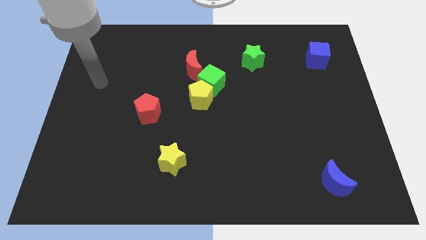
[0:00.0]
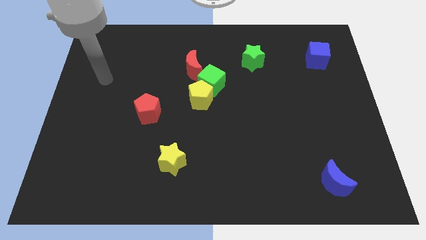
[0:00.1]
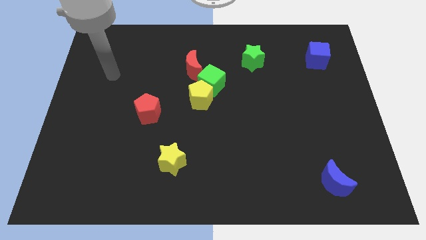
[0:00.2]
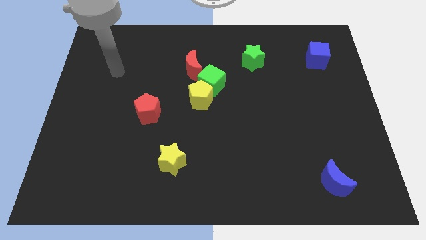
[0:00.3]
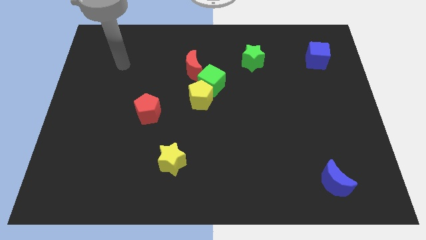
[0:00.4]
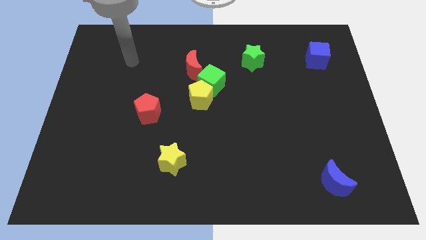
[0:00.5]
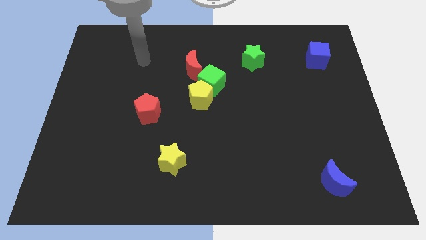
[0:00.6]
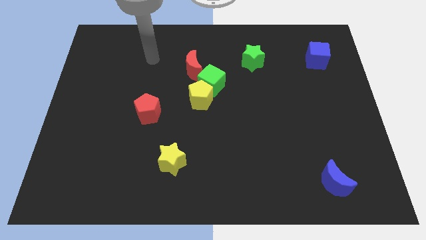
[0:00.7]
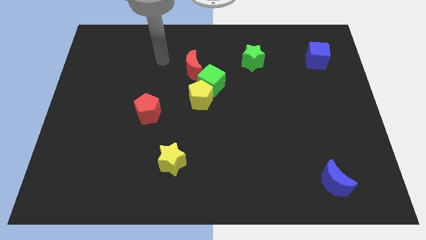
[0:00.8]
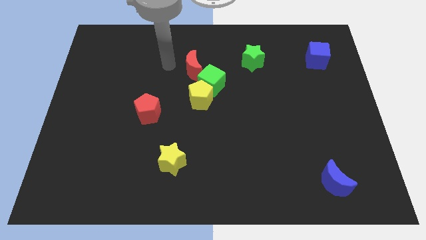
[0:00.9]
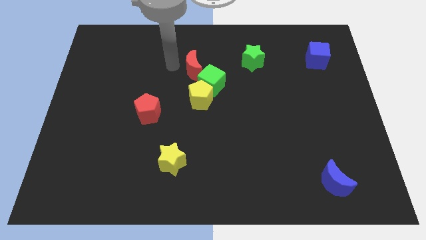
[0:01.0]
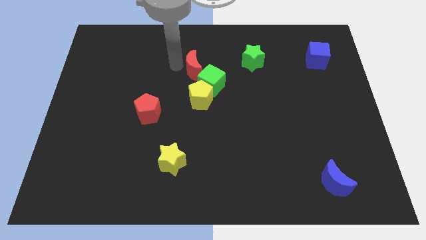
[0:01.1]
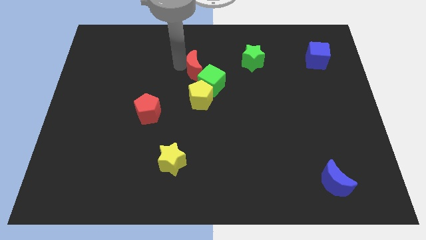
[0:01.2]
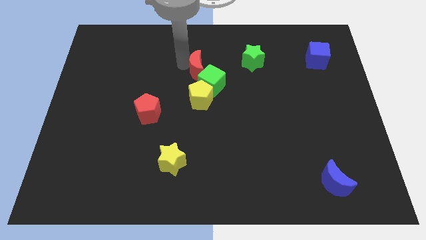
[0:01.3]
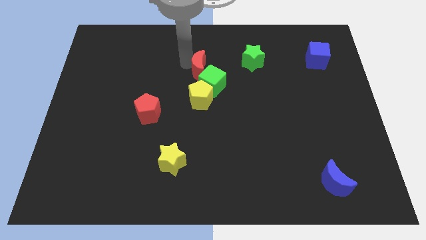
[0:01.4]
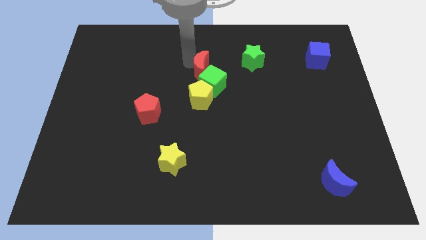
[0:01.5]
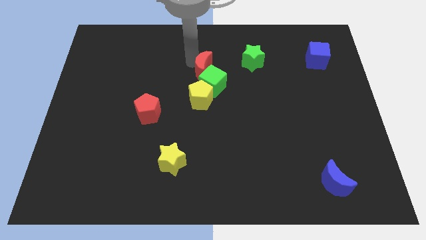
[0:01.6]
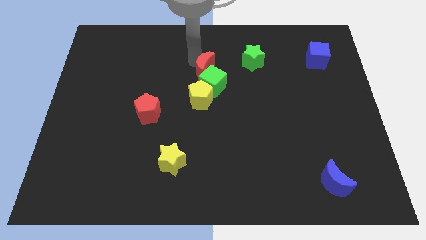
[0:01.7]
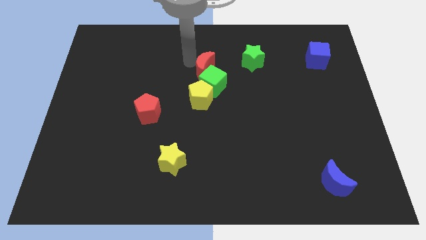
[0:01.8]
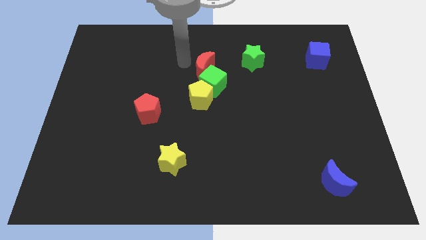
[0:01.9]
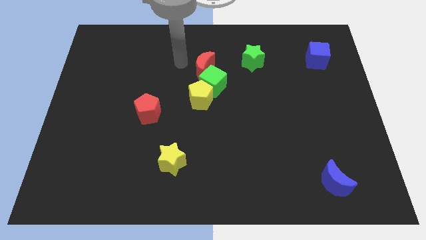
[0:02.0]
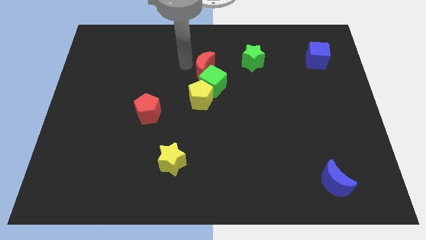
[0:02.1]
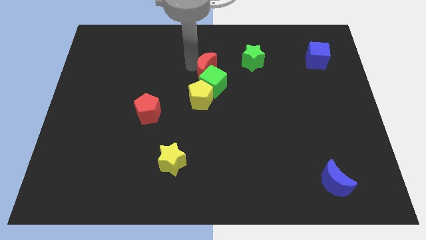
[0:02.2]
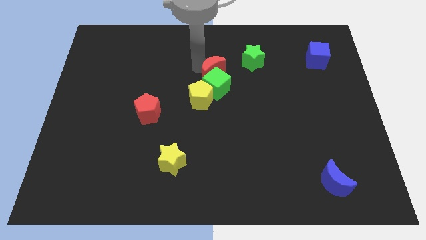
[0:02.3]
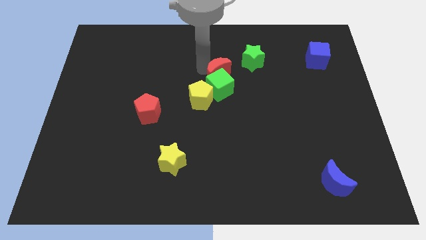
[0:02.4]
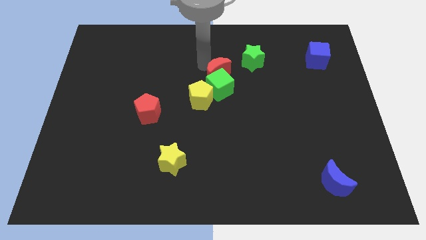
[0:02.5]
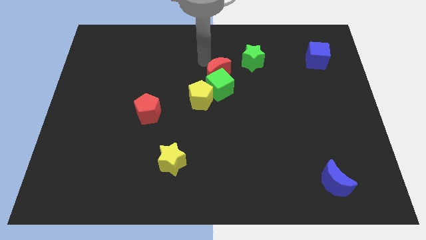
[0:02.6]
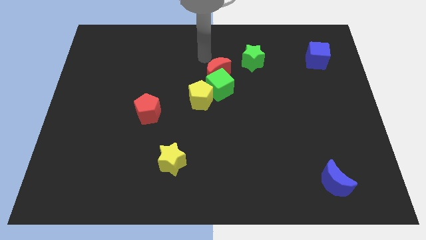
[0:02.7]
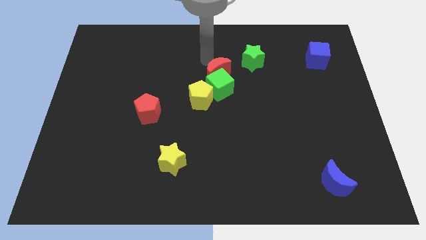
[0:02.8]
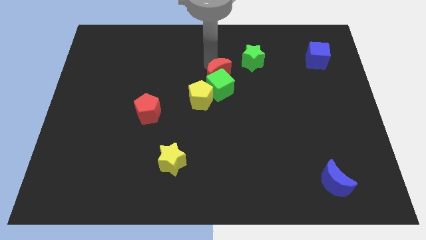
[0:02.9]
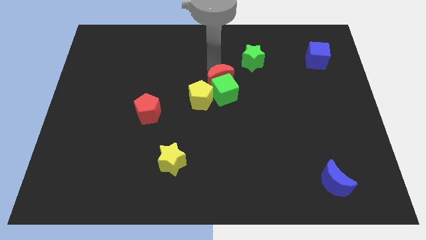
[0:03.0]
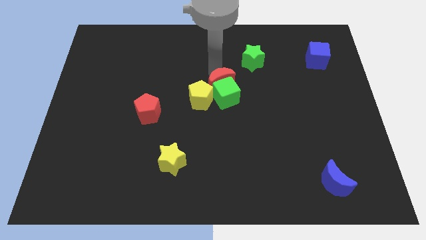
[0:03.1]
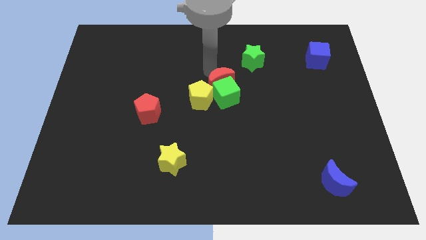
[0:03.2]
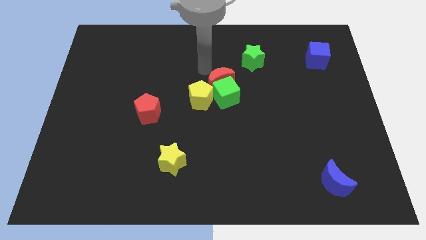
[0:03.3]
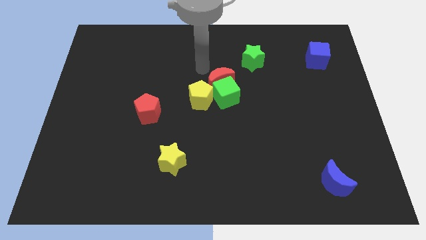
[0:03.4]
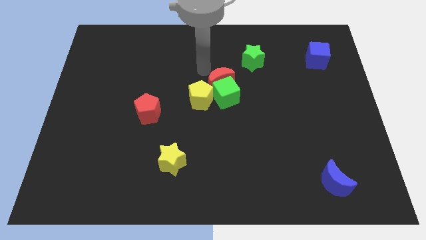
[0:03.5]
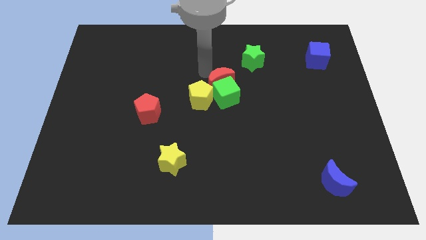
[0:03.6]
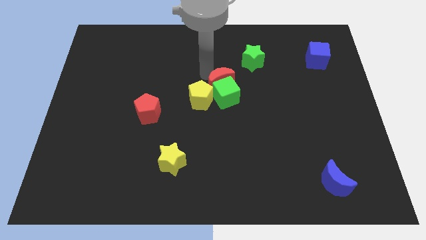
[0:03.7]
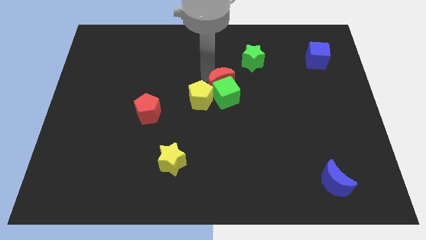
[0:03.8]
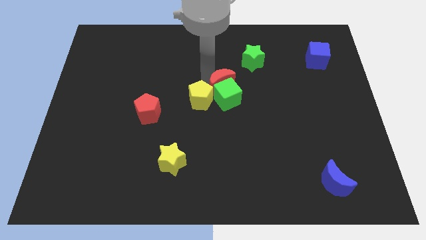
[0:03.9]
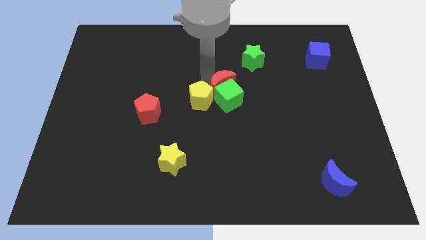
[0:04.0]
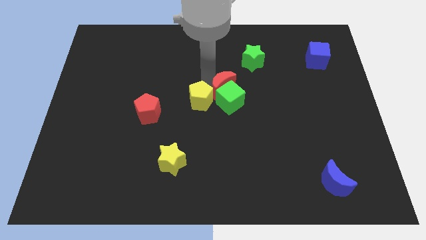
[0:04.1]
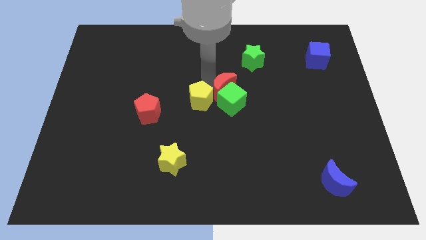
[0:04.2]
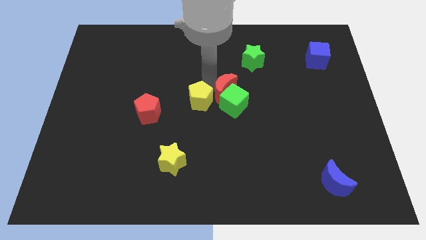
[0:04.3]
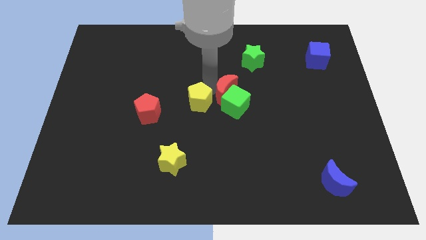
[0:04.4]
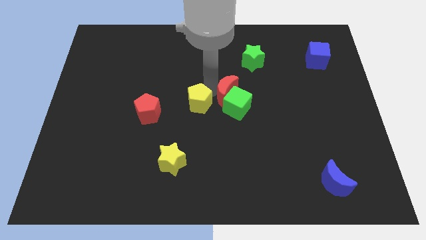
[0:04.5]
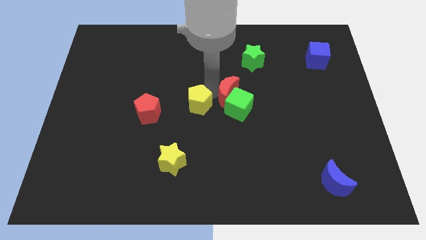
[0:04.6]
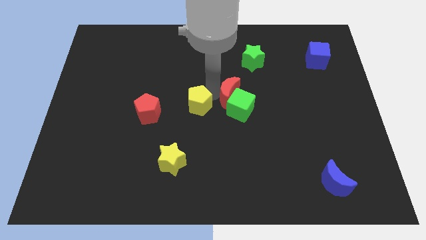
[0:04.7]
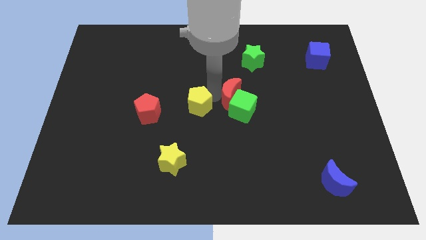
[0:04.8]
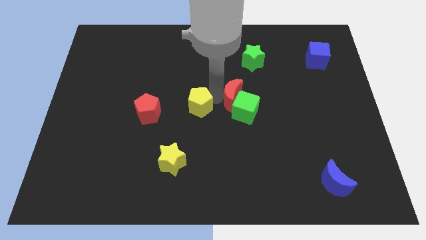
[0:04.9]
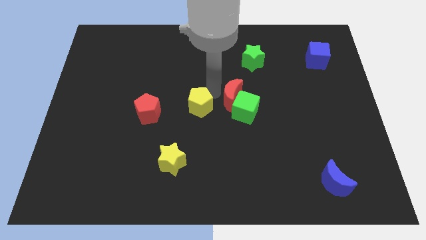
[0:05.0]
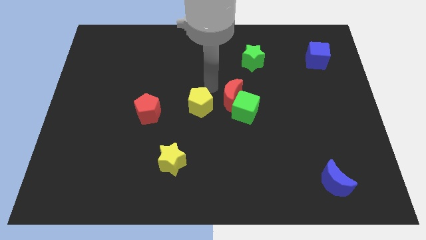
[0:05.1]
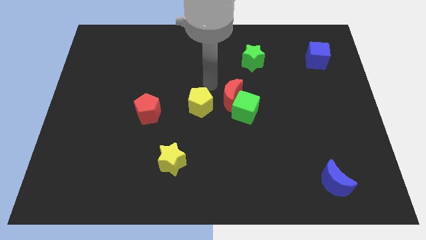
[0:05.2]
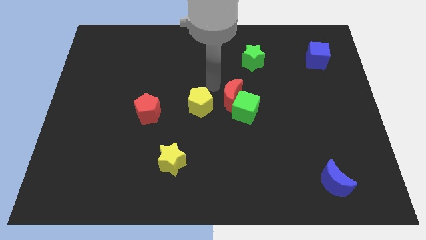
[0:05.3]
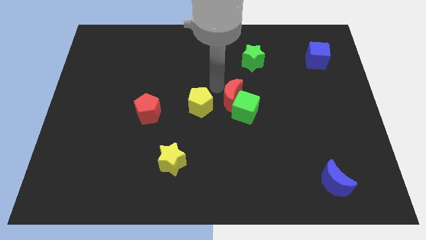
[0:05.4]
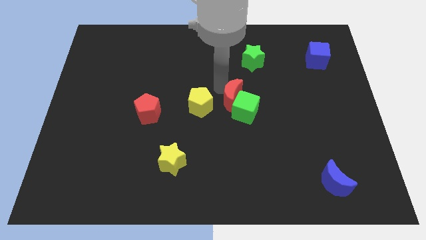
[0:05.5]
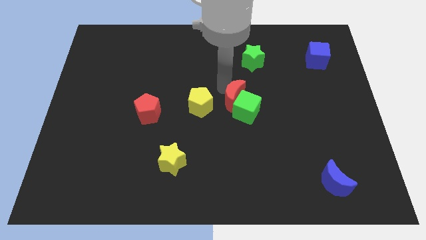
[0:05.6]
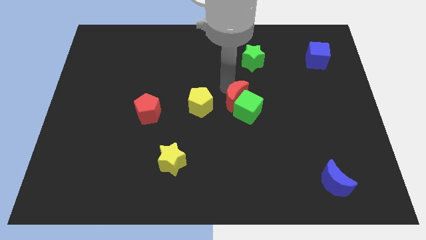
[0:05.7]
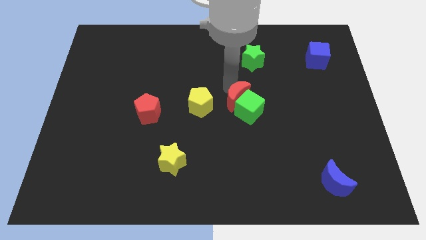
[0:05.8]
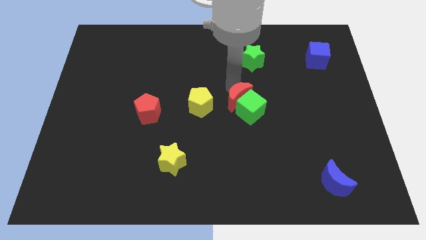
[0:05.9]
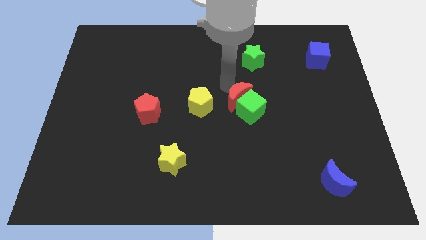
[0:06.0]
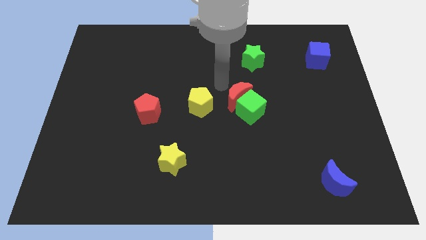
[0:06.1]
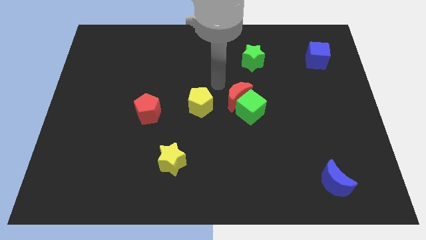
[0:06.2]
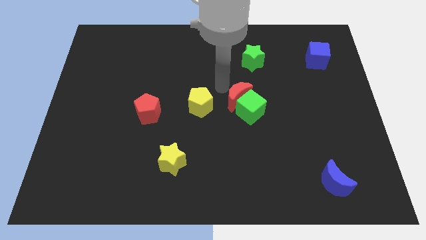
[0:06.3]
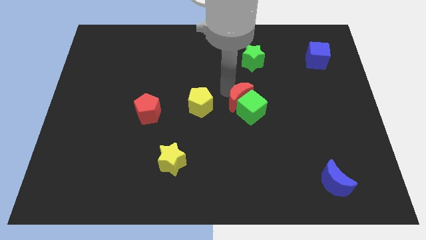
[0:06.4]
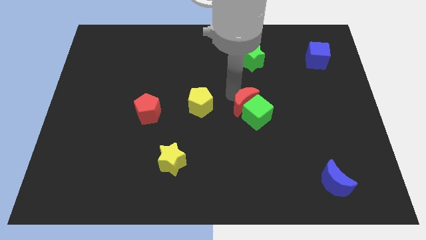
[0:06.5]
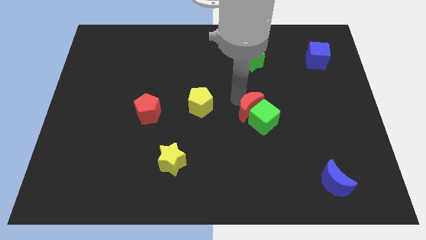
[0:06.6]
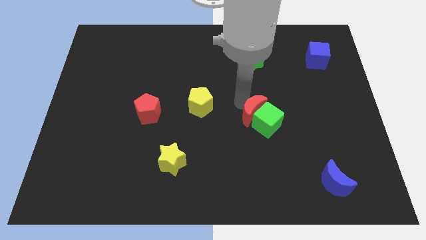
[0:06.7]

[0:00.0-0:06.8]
push the red moon downwards and then right

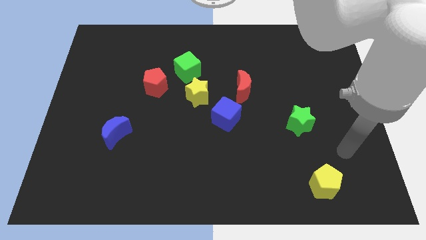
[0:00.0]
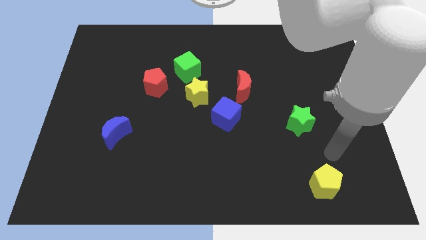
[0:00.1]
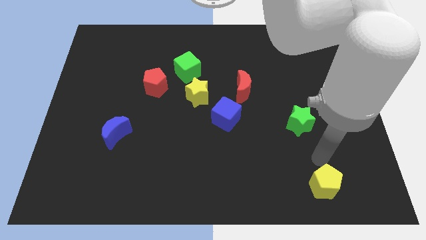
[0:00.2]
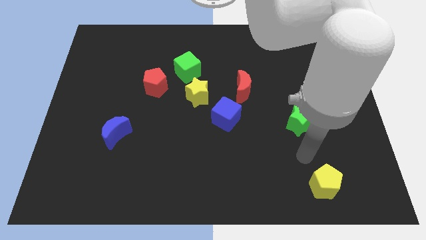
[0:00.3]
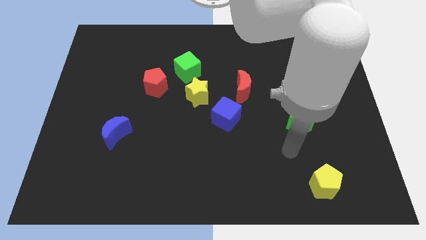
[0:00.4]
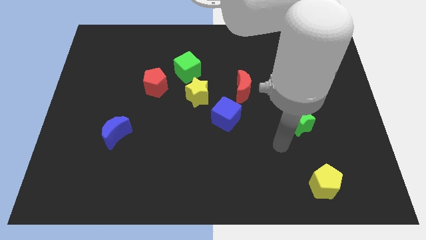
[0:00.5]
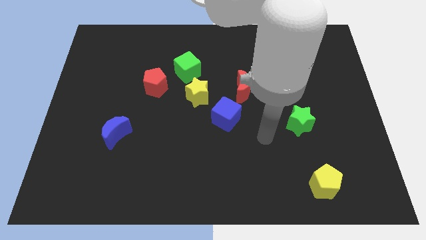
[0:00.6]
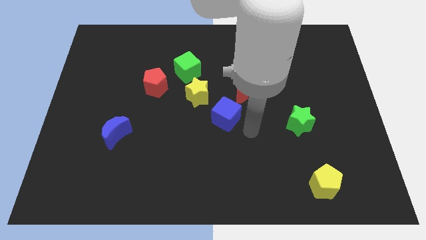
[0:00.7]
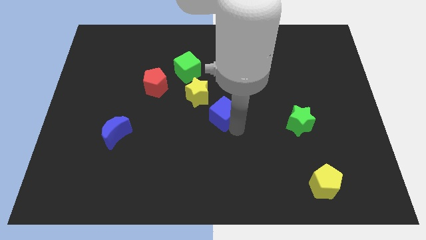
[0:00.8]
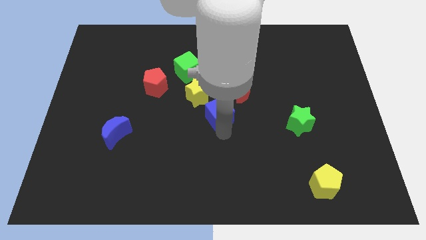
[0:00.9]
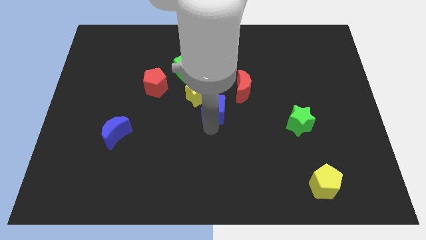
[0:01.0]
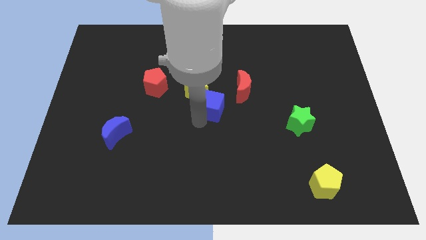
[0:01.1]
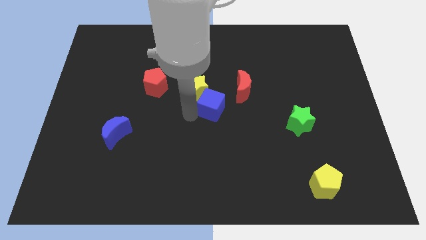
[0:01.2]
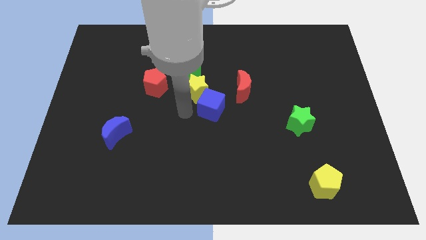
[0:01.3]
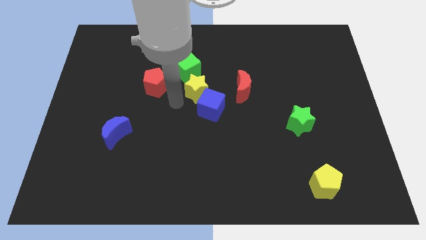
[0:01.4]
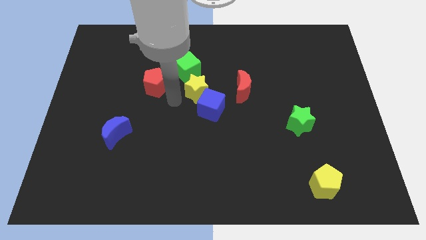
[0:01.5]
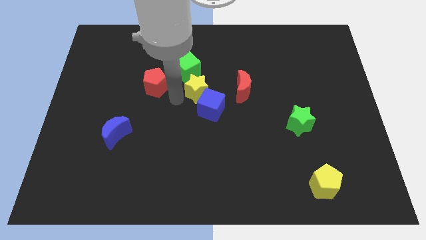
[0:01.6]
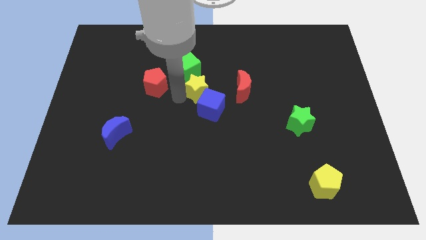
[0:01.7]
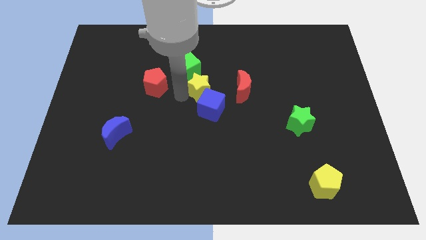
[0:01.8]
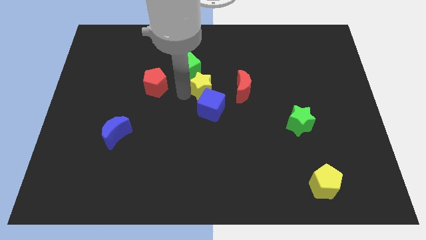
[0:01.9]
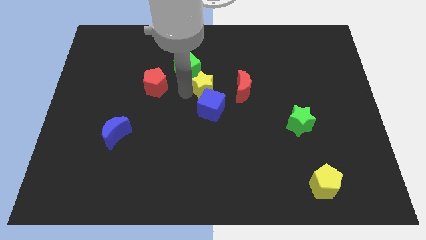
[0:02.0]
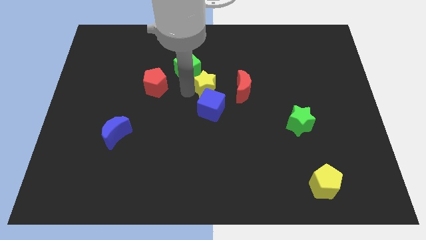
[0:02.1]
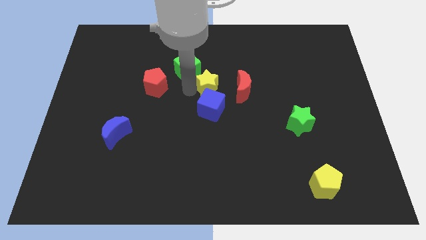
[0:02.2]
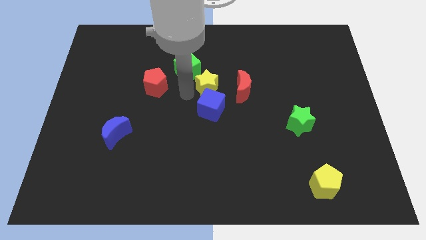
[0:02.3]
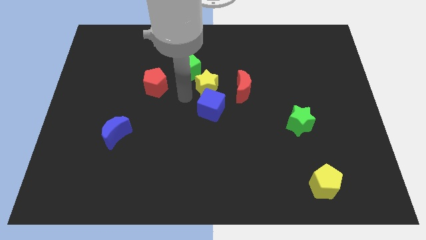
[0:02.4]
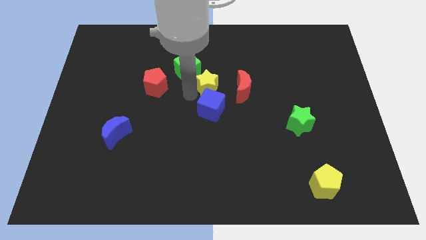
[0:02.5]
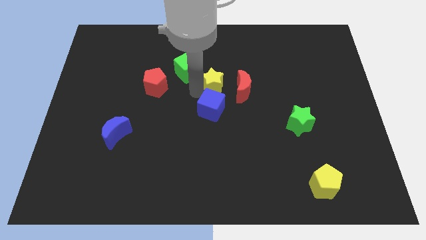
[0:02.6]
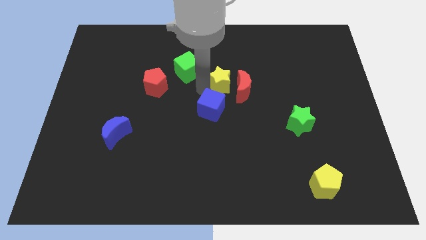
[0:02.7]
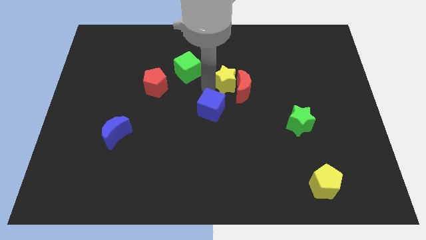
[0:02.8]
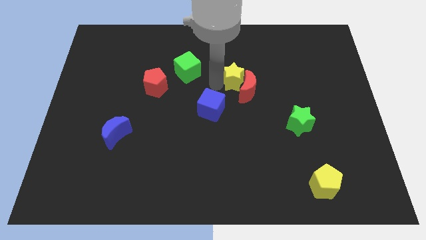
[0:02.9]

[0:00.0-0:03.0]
slide the yellow star right a little bit
